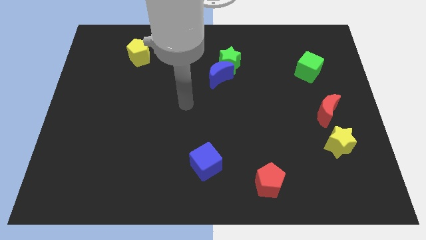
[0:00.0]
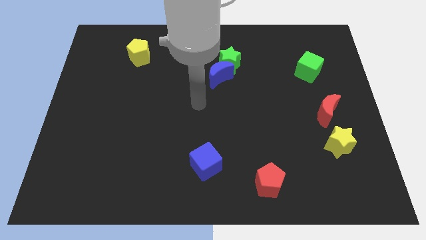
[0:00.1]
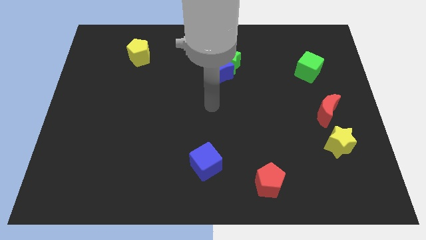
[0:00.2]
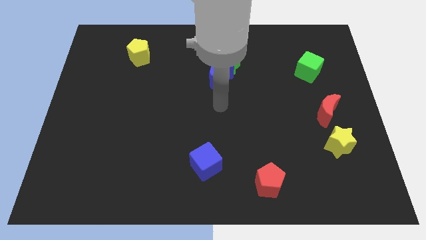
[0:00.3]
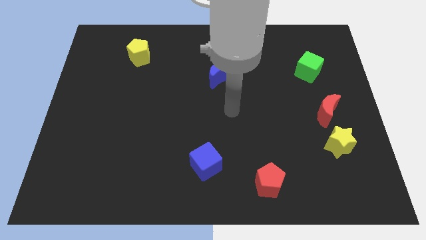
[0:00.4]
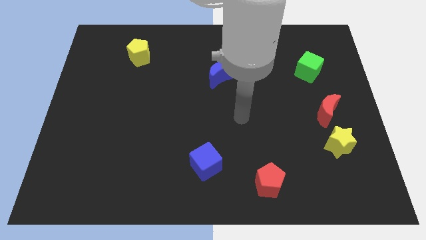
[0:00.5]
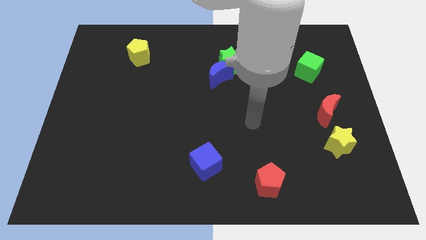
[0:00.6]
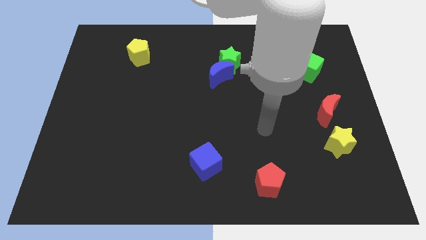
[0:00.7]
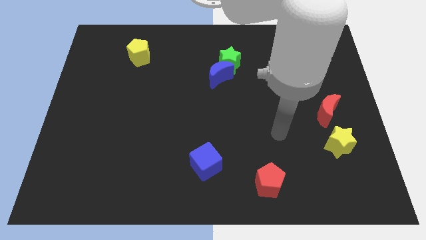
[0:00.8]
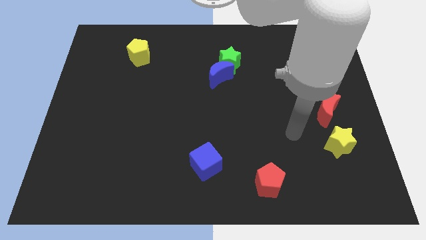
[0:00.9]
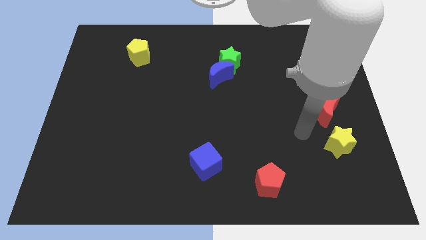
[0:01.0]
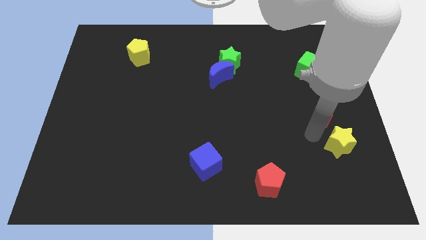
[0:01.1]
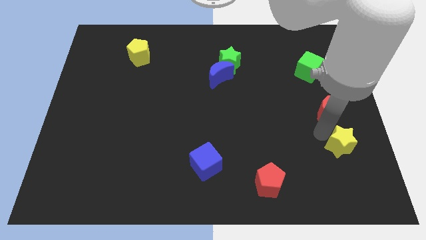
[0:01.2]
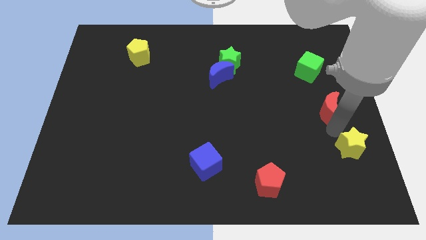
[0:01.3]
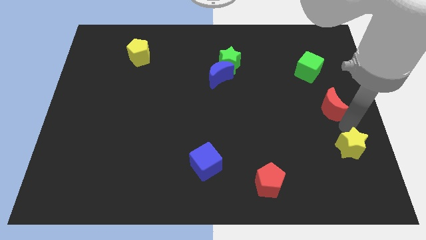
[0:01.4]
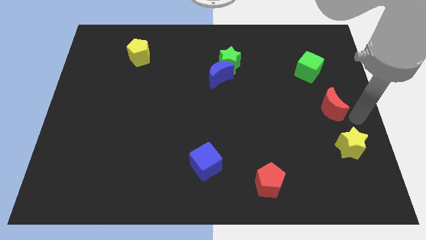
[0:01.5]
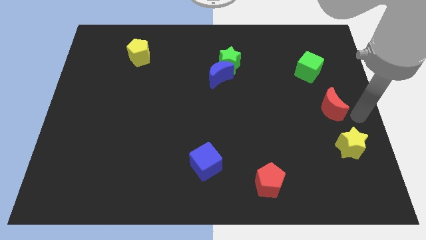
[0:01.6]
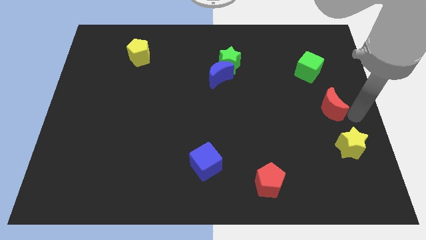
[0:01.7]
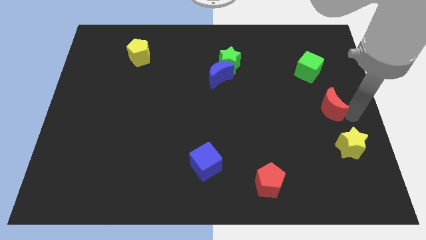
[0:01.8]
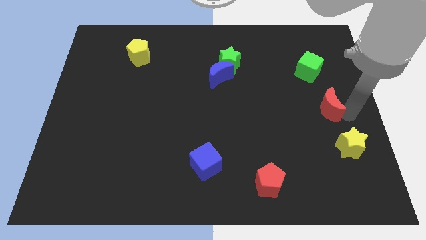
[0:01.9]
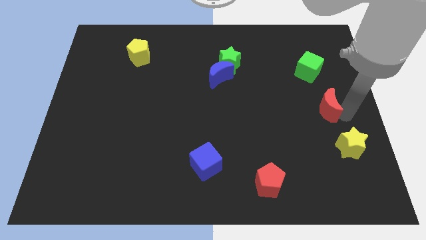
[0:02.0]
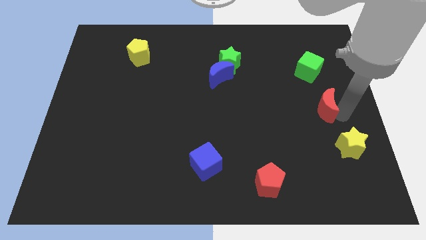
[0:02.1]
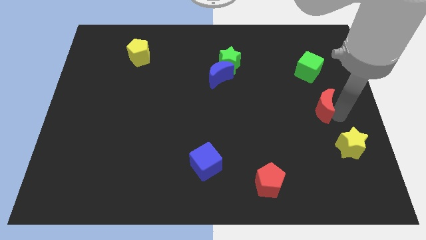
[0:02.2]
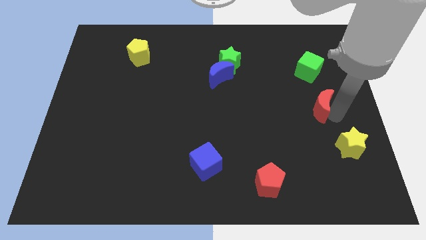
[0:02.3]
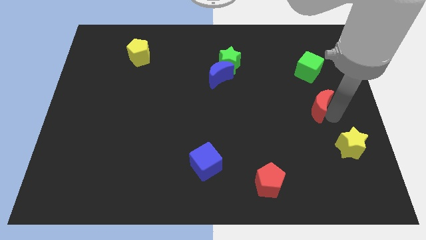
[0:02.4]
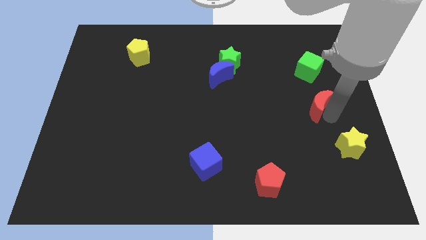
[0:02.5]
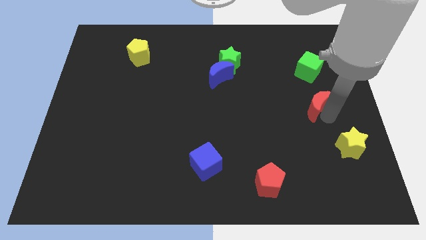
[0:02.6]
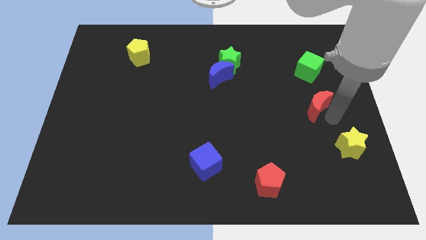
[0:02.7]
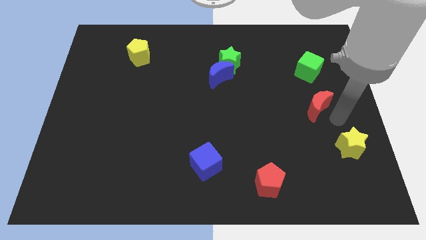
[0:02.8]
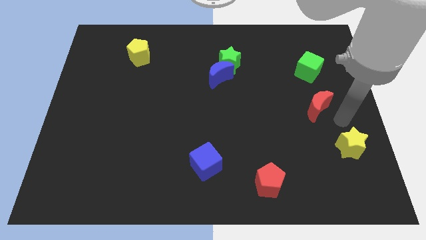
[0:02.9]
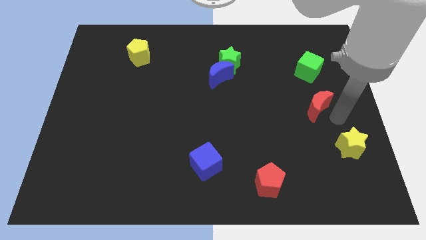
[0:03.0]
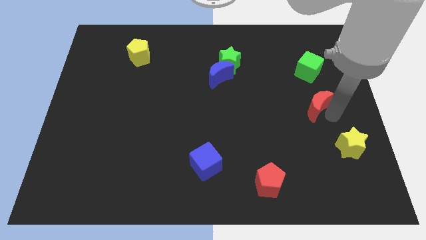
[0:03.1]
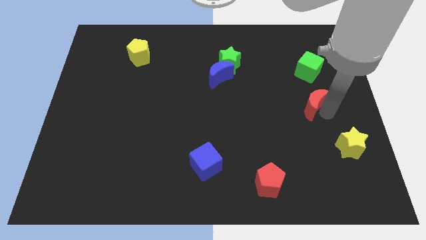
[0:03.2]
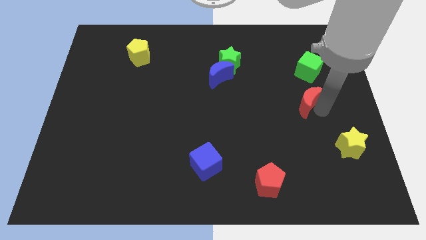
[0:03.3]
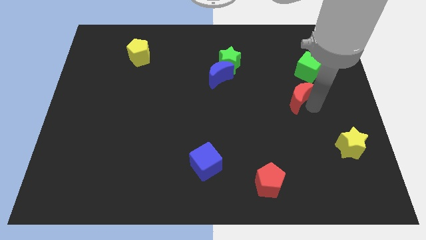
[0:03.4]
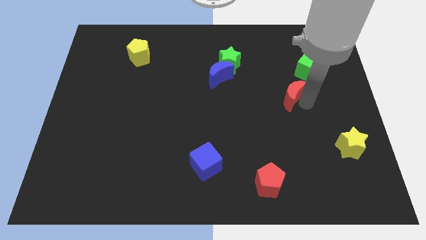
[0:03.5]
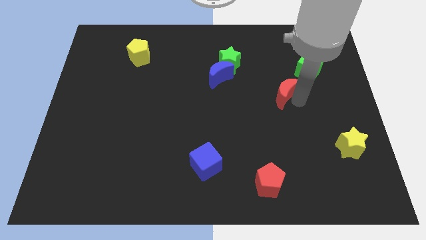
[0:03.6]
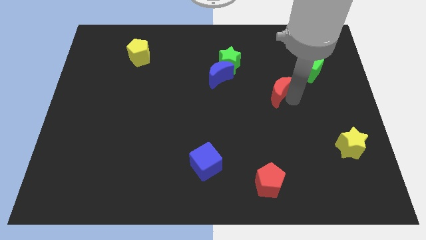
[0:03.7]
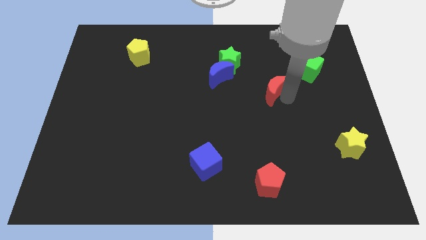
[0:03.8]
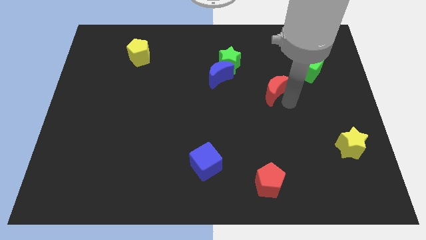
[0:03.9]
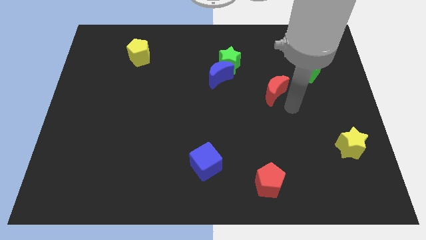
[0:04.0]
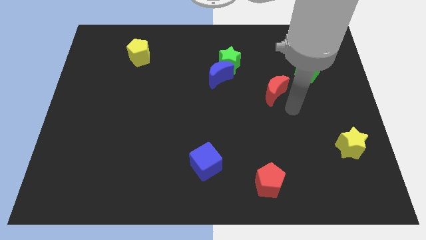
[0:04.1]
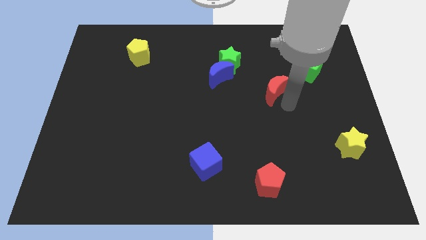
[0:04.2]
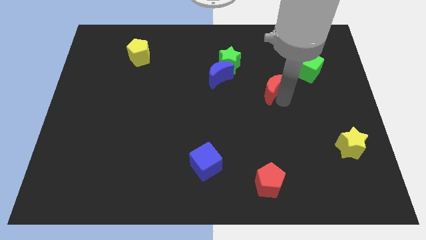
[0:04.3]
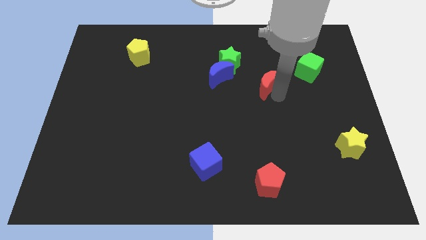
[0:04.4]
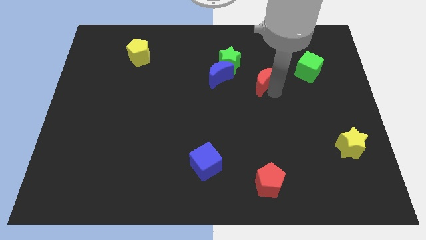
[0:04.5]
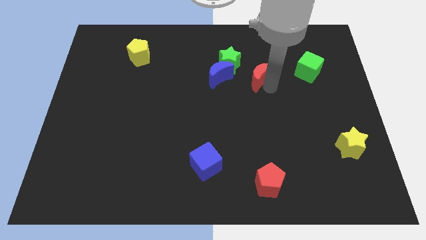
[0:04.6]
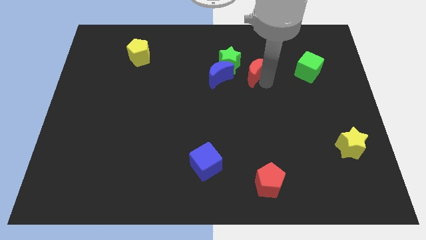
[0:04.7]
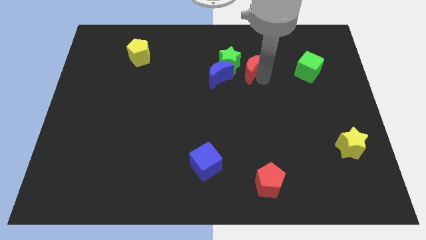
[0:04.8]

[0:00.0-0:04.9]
push the red moon towards the green star

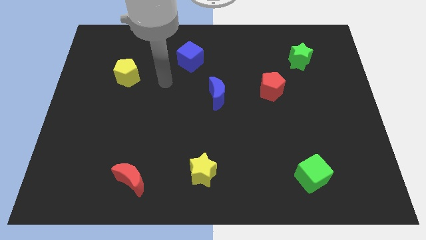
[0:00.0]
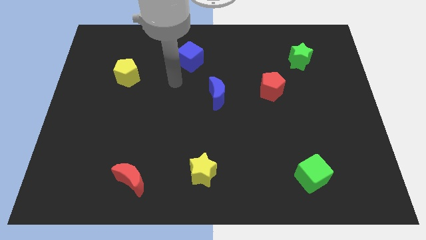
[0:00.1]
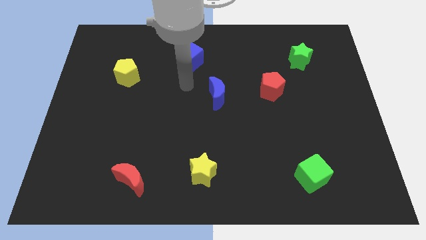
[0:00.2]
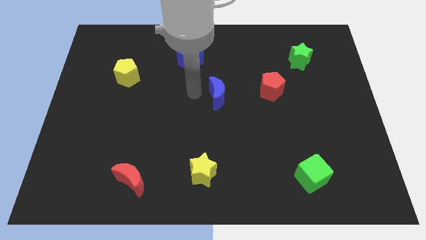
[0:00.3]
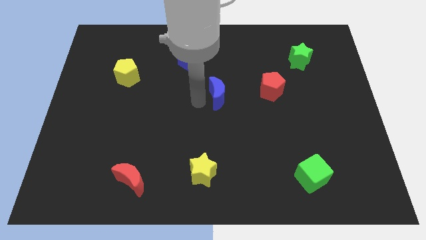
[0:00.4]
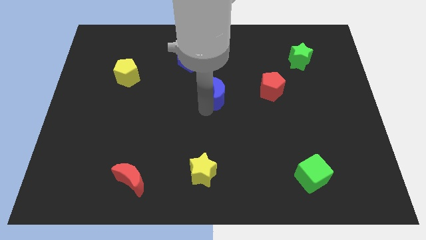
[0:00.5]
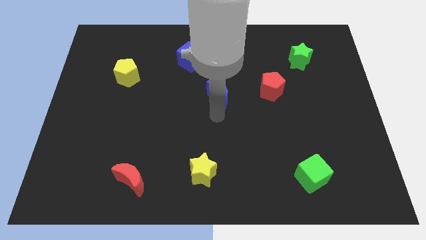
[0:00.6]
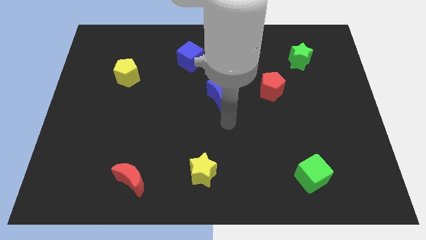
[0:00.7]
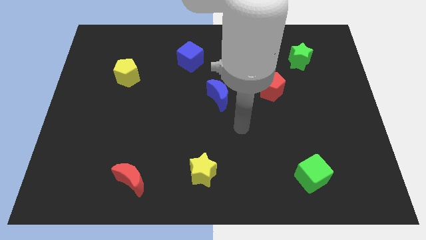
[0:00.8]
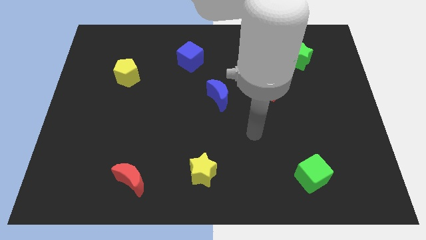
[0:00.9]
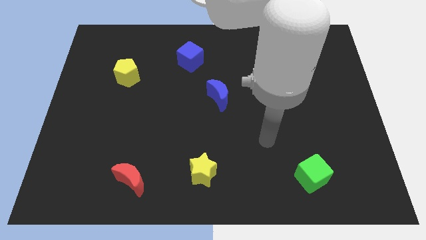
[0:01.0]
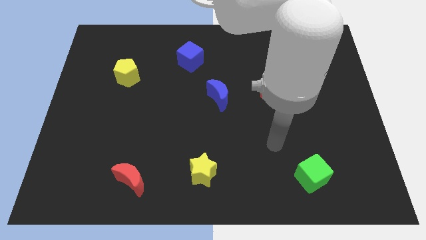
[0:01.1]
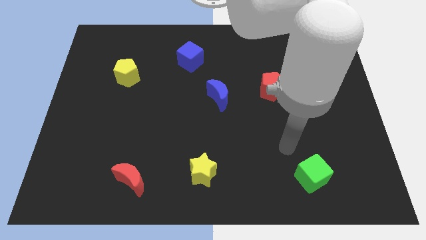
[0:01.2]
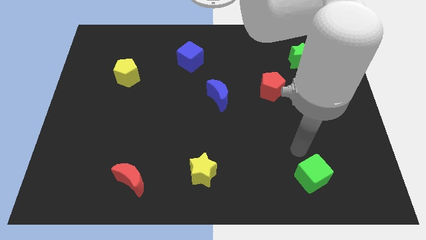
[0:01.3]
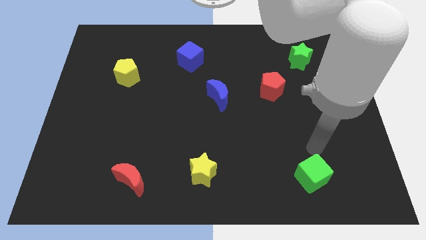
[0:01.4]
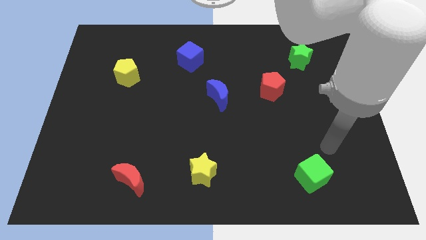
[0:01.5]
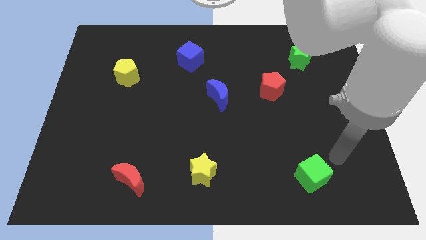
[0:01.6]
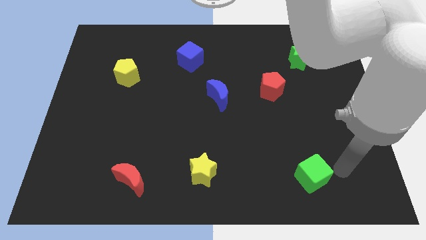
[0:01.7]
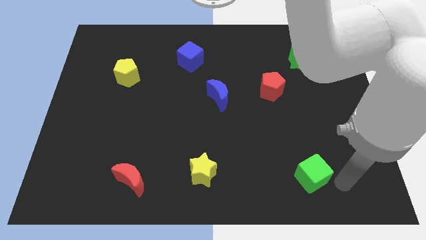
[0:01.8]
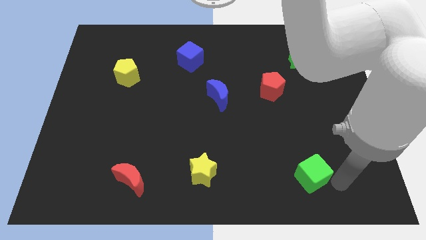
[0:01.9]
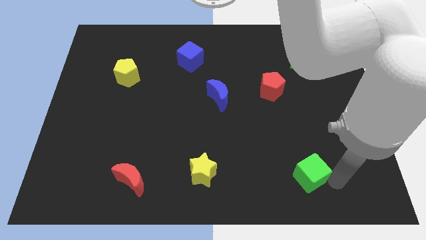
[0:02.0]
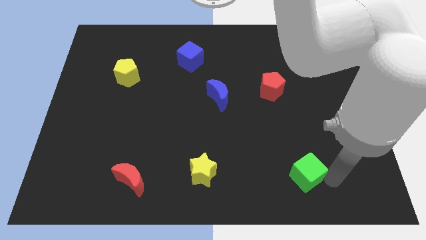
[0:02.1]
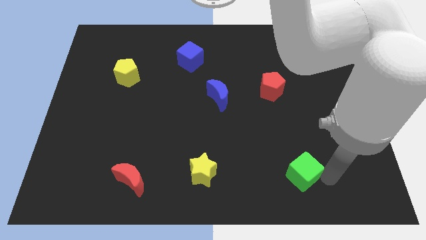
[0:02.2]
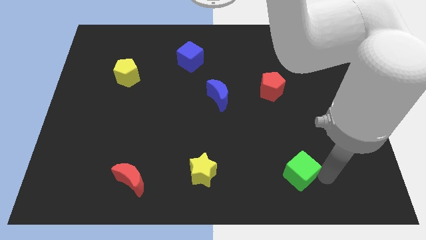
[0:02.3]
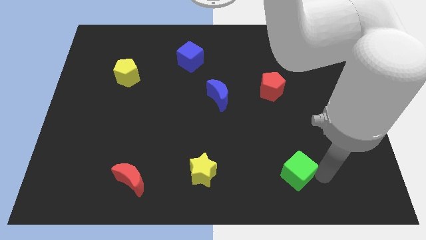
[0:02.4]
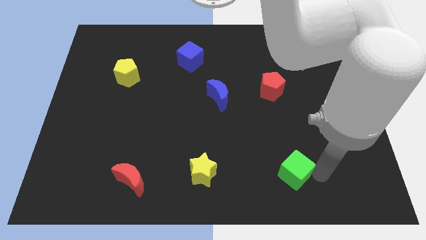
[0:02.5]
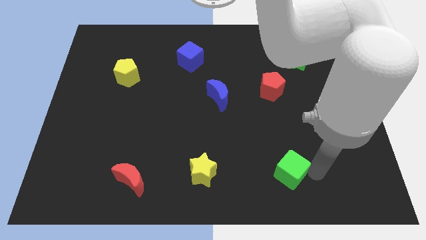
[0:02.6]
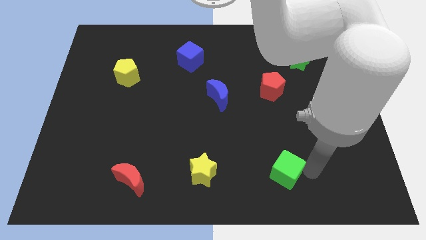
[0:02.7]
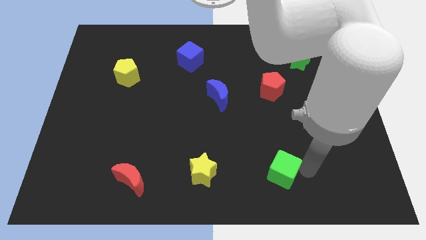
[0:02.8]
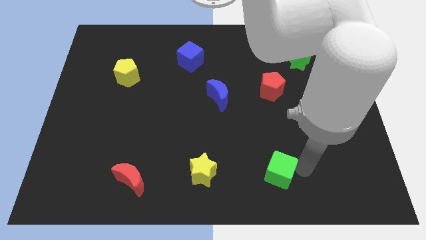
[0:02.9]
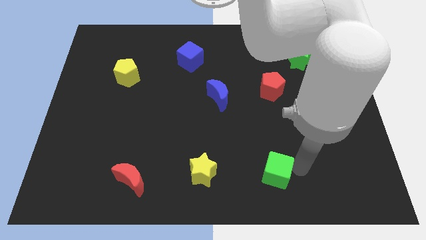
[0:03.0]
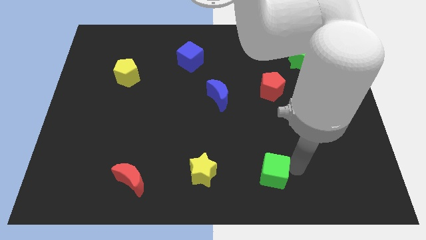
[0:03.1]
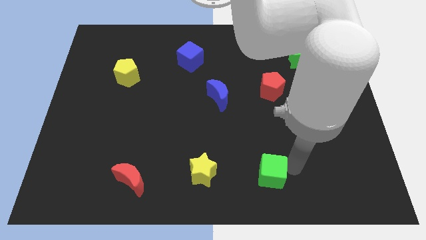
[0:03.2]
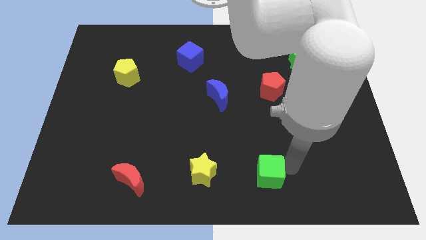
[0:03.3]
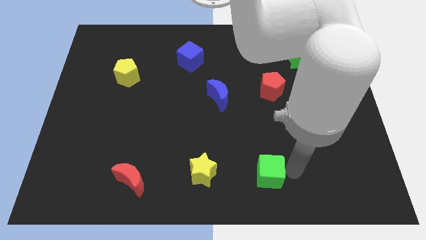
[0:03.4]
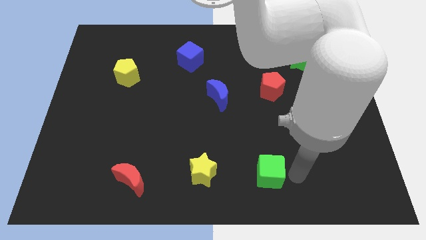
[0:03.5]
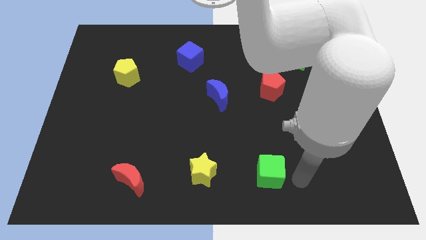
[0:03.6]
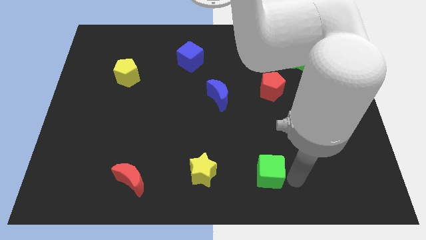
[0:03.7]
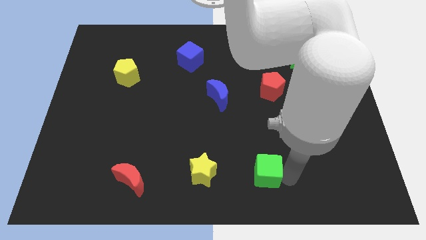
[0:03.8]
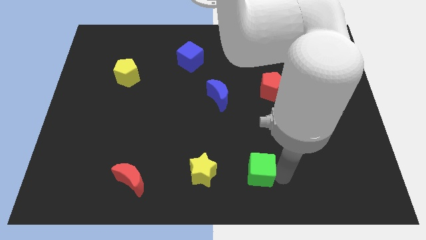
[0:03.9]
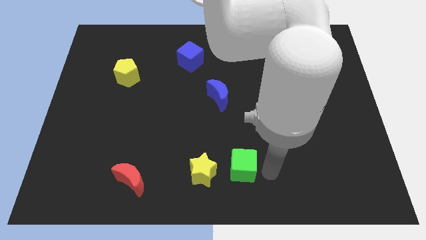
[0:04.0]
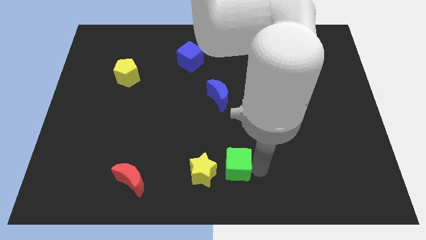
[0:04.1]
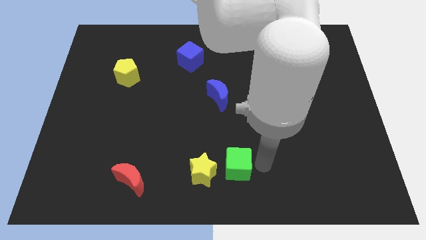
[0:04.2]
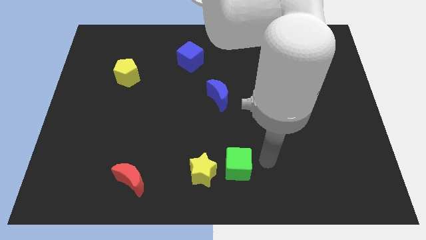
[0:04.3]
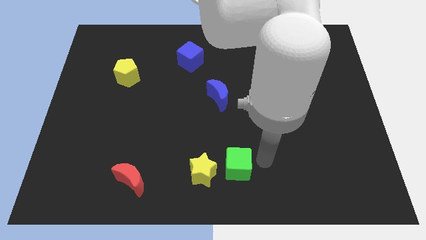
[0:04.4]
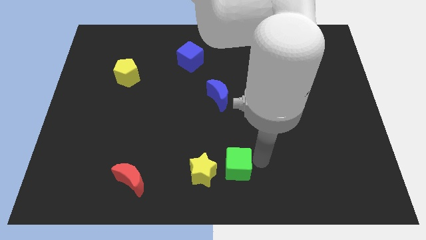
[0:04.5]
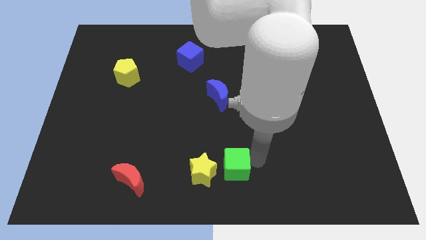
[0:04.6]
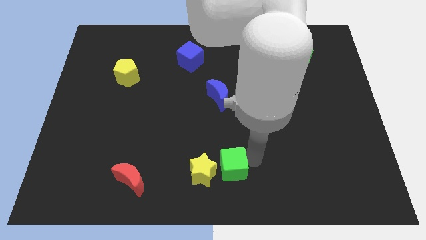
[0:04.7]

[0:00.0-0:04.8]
put the green cube towards the yellow star
